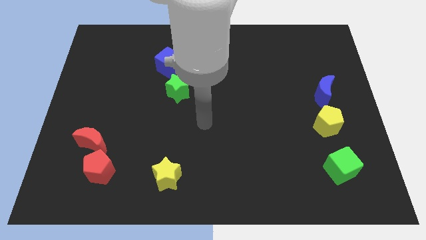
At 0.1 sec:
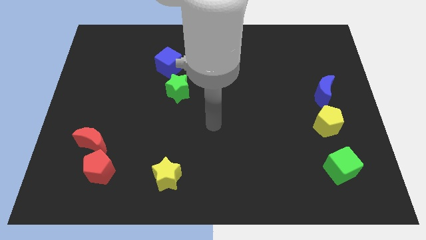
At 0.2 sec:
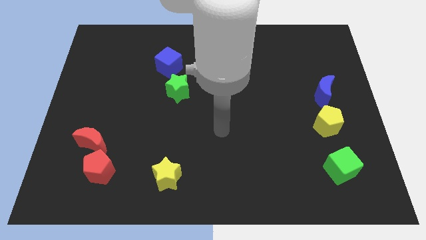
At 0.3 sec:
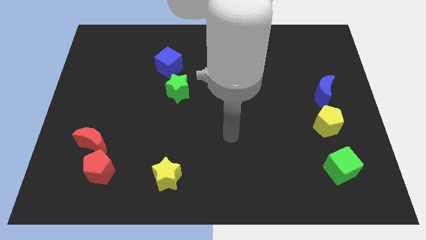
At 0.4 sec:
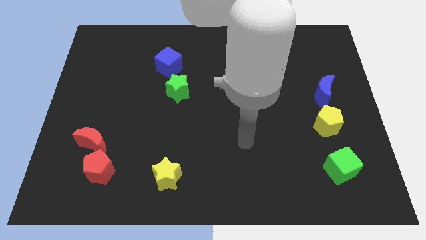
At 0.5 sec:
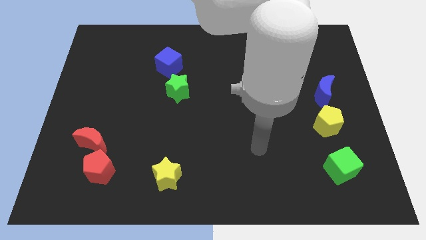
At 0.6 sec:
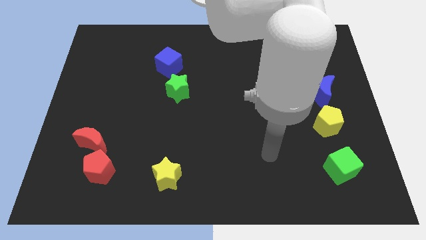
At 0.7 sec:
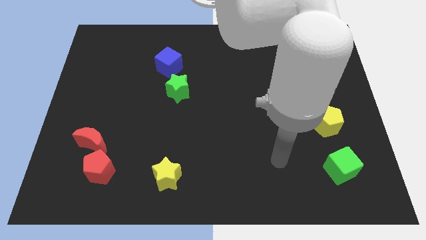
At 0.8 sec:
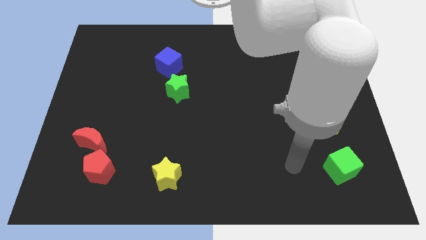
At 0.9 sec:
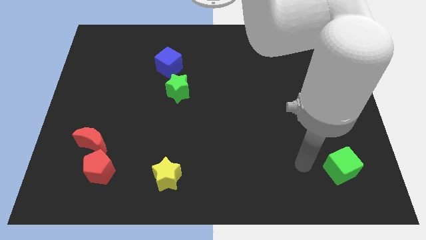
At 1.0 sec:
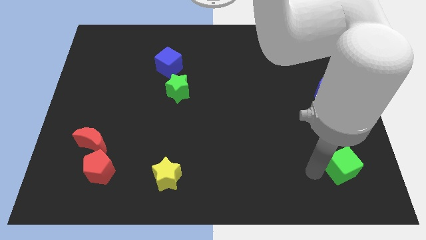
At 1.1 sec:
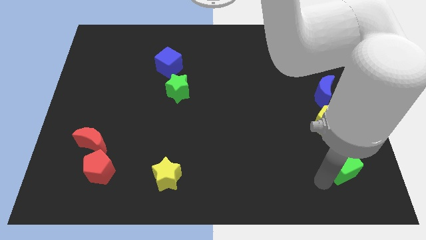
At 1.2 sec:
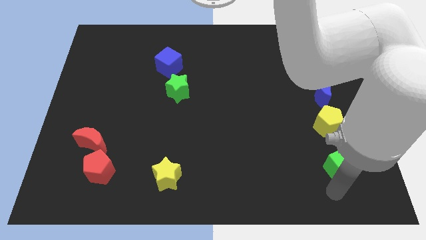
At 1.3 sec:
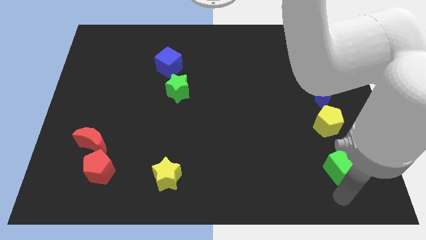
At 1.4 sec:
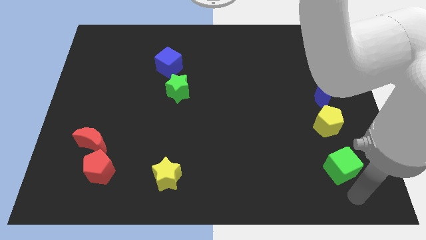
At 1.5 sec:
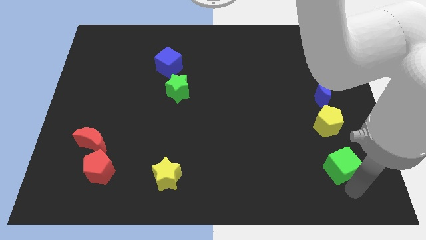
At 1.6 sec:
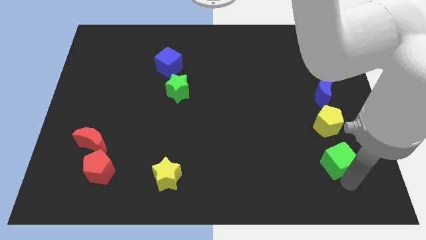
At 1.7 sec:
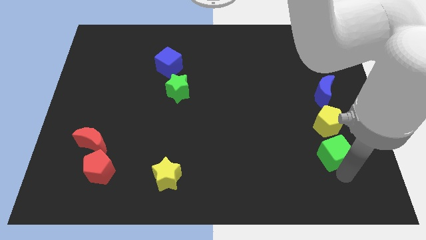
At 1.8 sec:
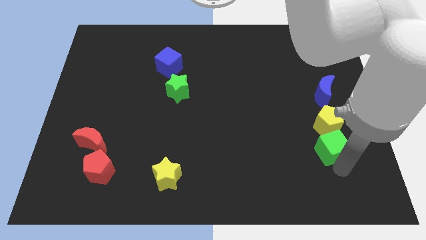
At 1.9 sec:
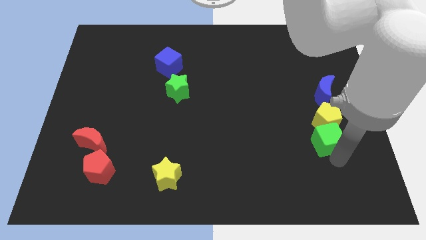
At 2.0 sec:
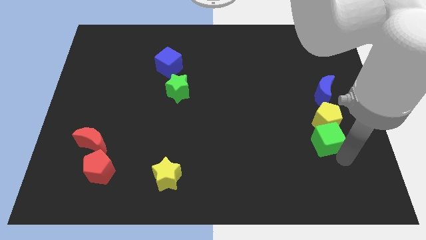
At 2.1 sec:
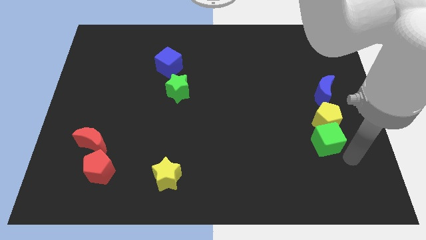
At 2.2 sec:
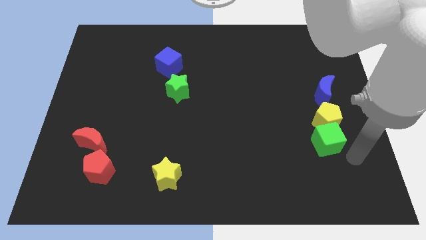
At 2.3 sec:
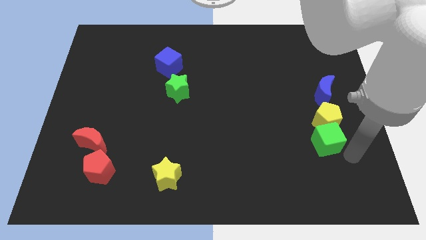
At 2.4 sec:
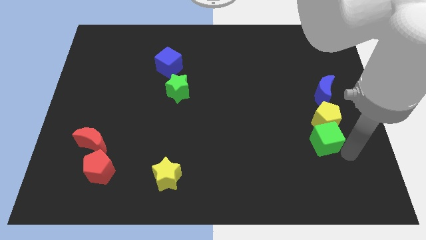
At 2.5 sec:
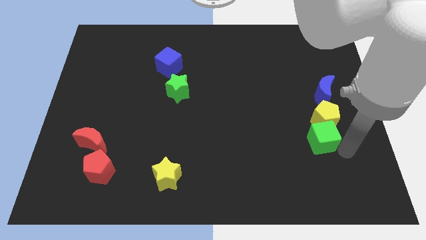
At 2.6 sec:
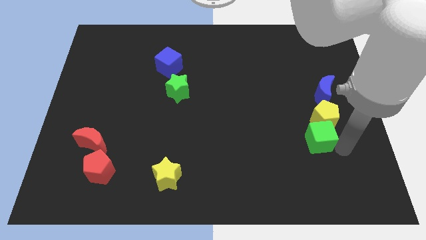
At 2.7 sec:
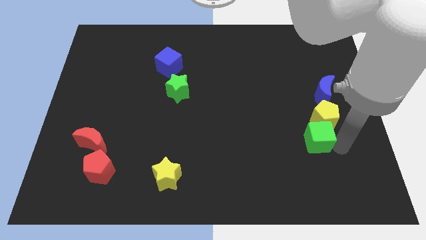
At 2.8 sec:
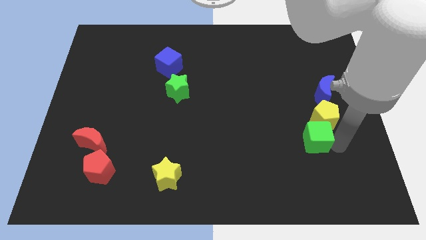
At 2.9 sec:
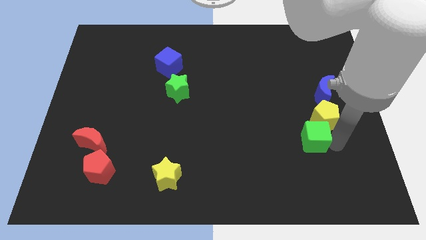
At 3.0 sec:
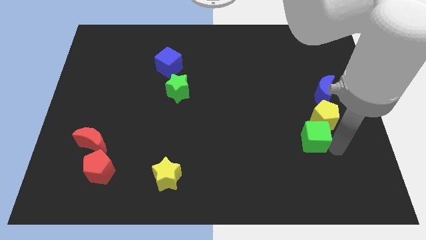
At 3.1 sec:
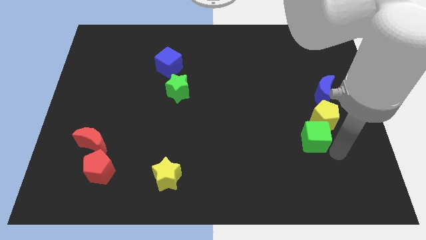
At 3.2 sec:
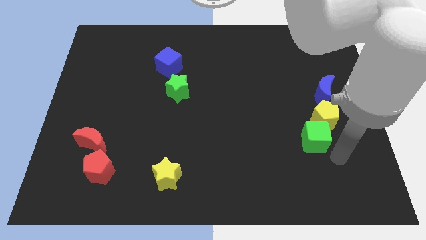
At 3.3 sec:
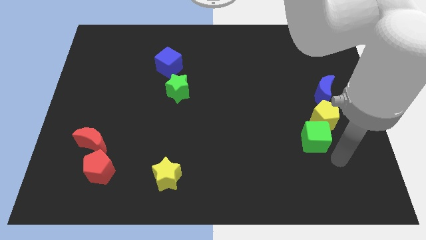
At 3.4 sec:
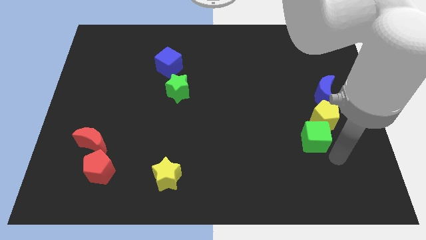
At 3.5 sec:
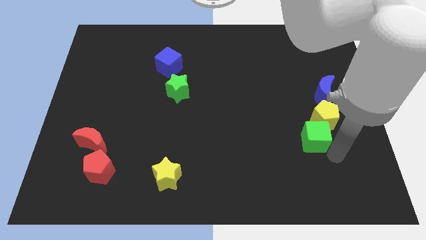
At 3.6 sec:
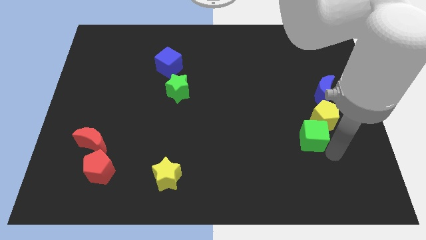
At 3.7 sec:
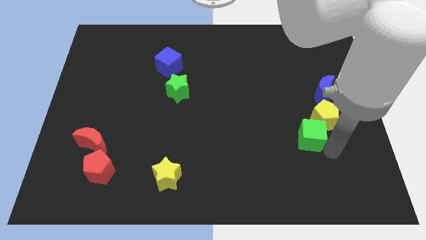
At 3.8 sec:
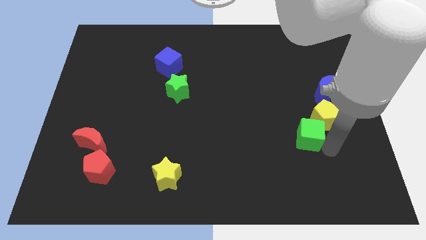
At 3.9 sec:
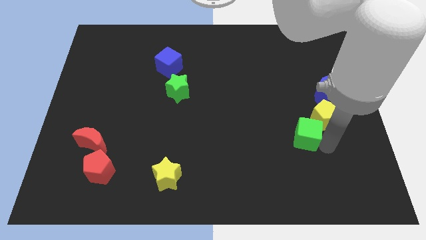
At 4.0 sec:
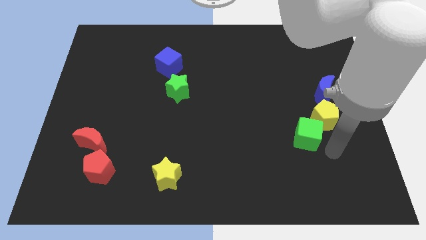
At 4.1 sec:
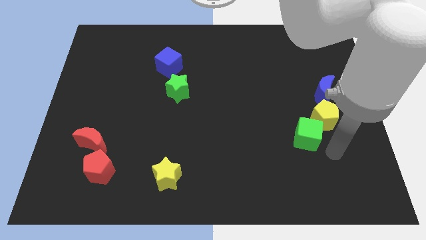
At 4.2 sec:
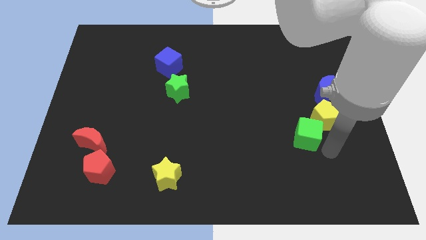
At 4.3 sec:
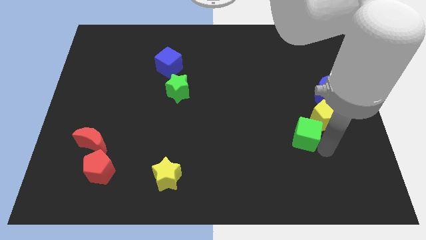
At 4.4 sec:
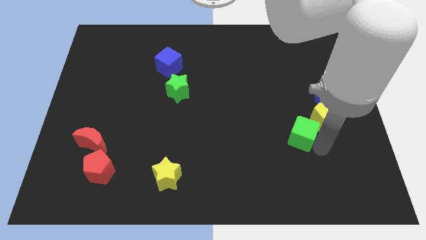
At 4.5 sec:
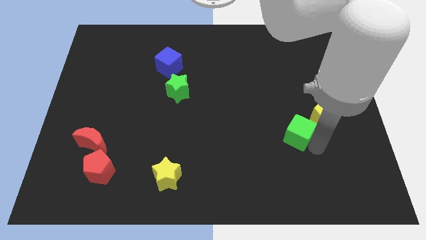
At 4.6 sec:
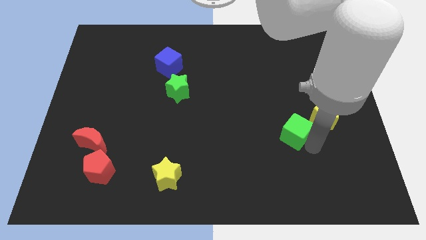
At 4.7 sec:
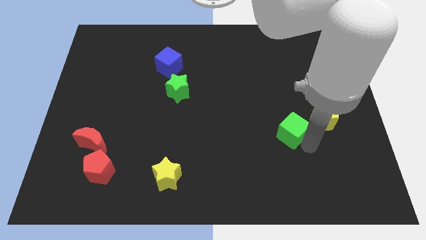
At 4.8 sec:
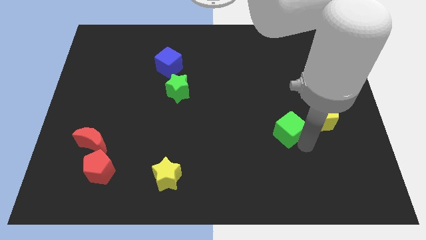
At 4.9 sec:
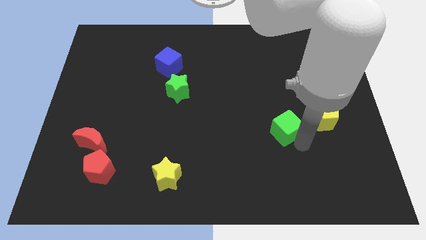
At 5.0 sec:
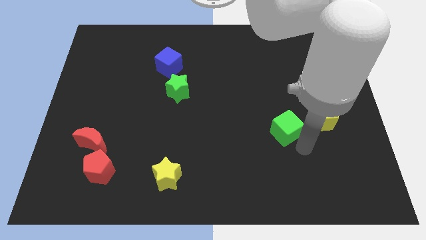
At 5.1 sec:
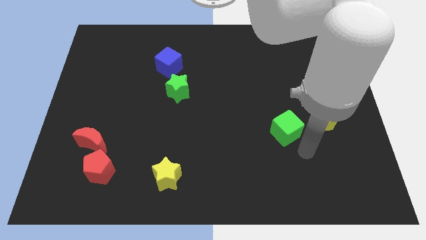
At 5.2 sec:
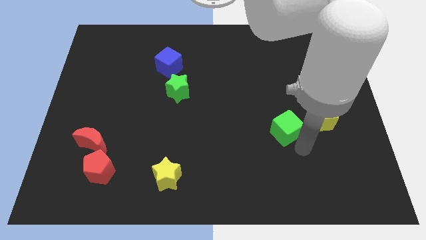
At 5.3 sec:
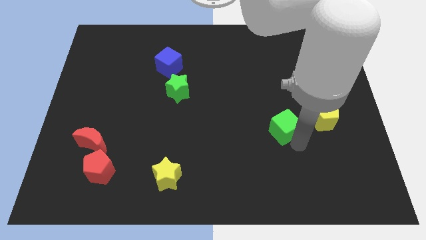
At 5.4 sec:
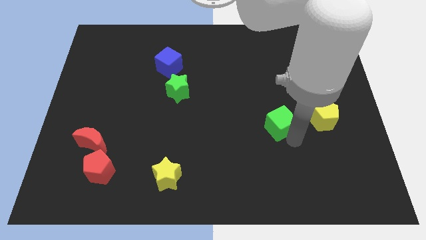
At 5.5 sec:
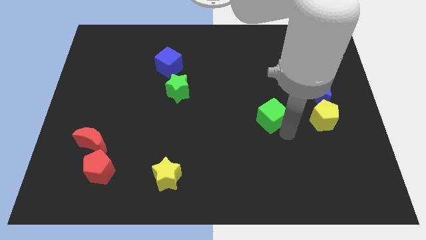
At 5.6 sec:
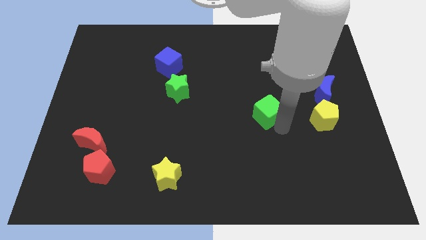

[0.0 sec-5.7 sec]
slide the green cube upwards and to the left

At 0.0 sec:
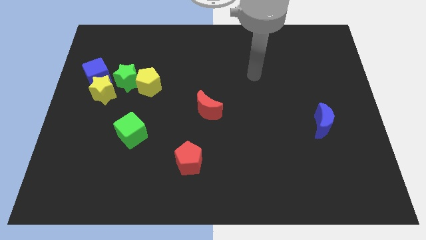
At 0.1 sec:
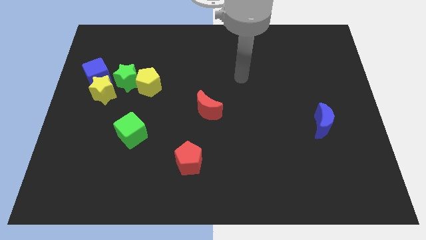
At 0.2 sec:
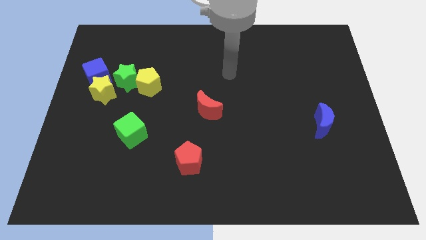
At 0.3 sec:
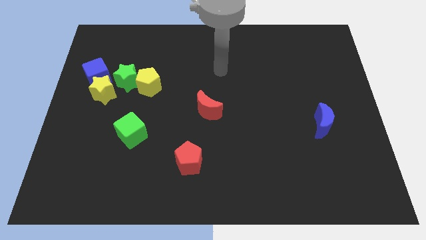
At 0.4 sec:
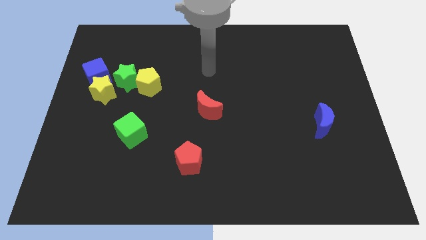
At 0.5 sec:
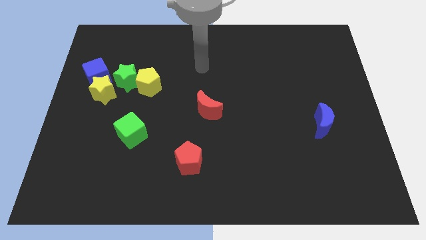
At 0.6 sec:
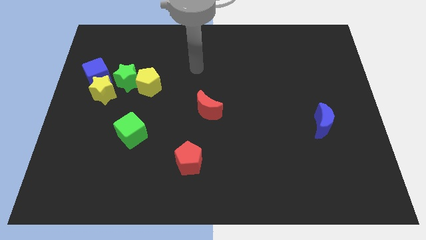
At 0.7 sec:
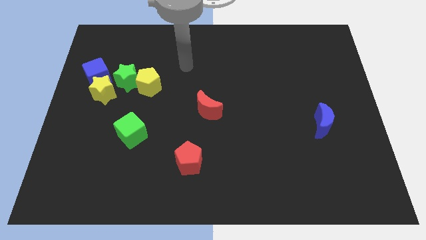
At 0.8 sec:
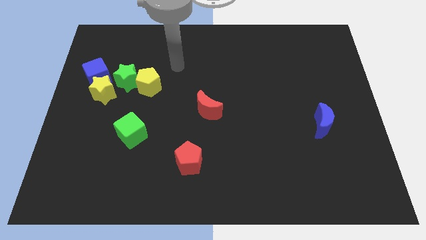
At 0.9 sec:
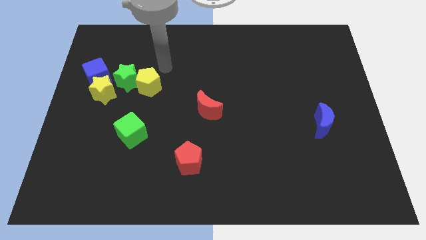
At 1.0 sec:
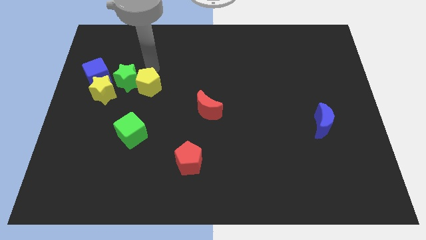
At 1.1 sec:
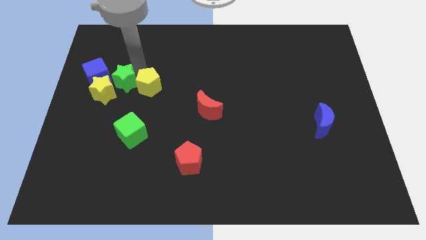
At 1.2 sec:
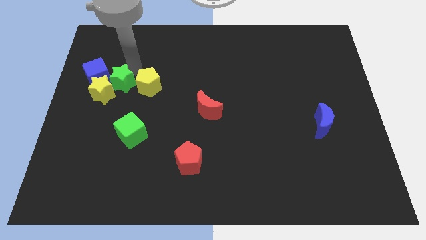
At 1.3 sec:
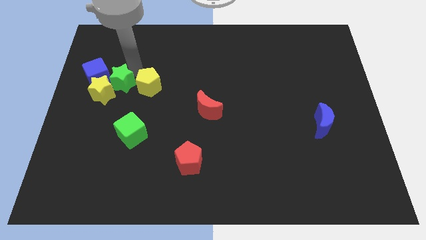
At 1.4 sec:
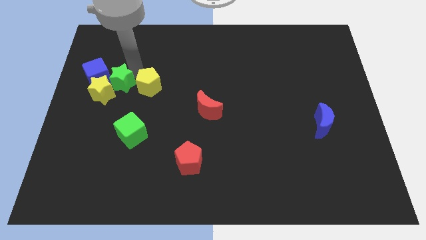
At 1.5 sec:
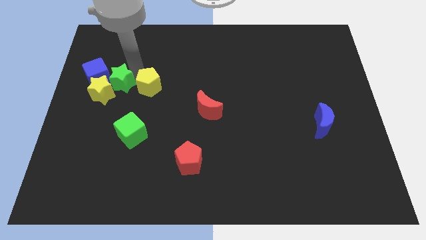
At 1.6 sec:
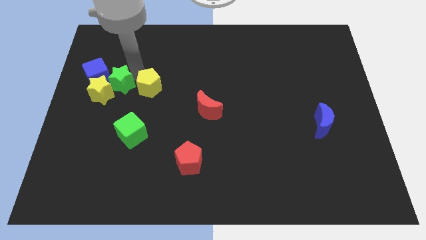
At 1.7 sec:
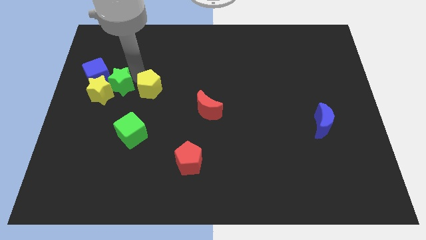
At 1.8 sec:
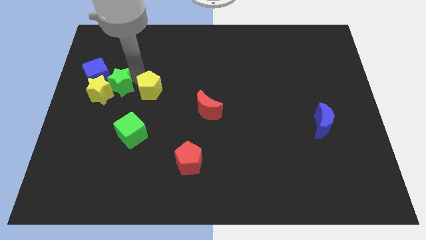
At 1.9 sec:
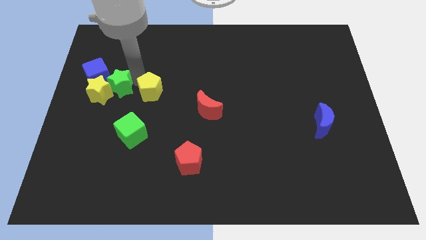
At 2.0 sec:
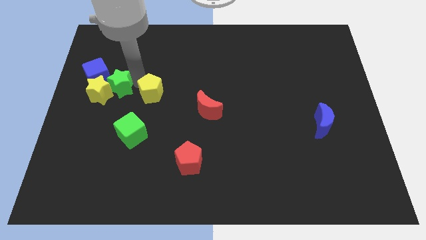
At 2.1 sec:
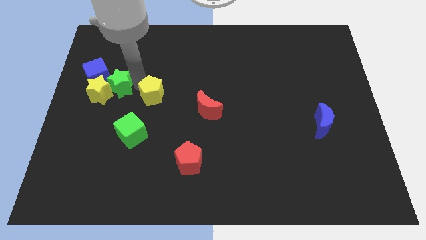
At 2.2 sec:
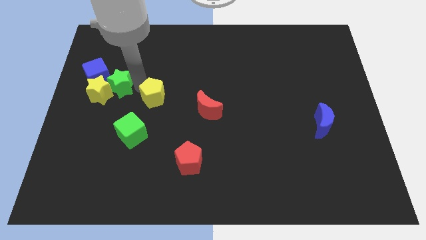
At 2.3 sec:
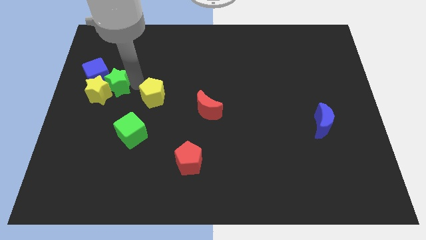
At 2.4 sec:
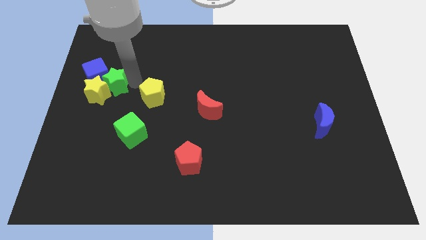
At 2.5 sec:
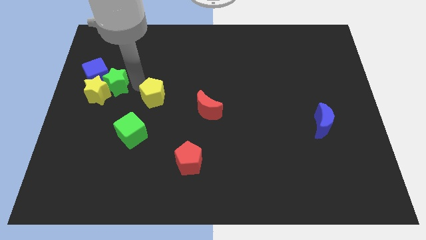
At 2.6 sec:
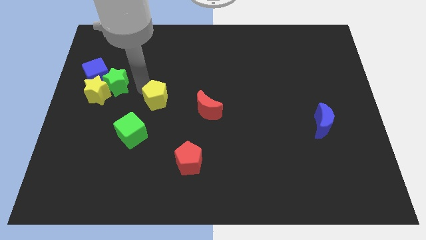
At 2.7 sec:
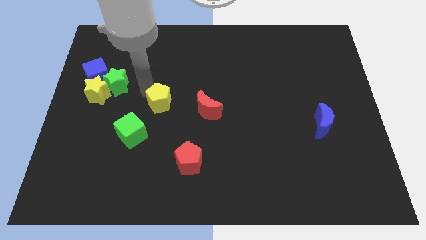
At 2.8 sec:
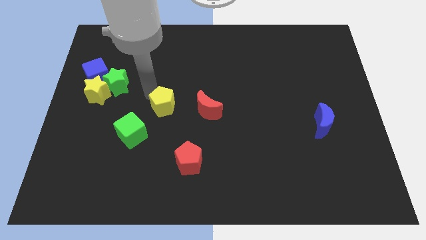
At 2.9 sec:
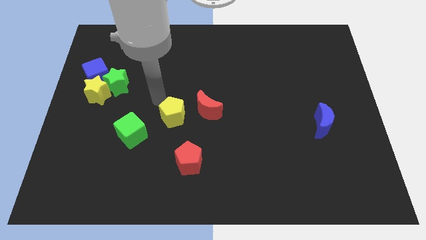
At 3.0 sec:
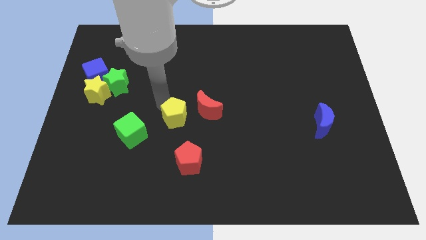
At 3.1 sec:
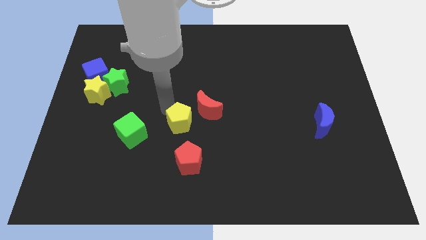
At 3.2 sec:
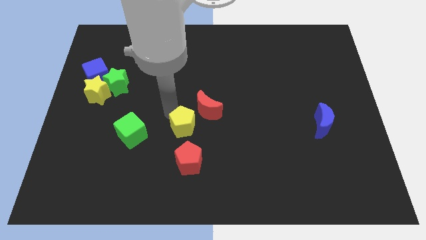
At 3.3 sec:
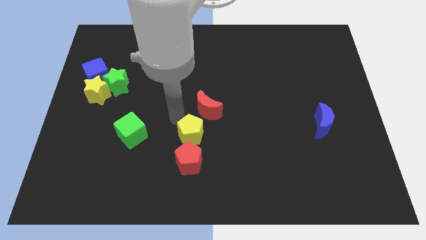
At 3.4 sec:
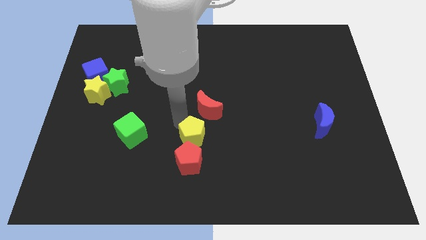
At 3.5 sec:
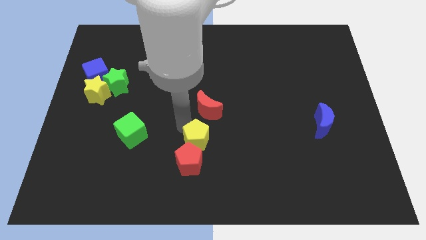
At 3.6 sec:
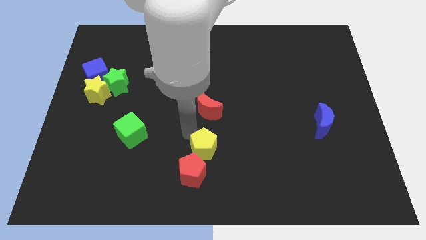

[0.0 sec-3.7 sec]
push the yellow pentagon down and to the right
